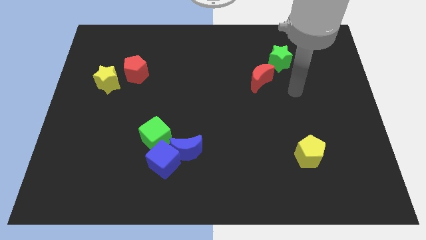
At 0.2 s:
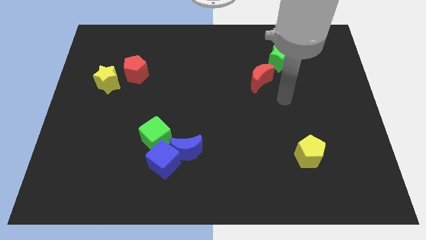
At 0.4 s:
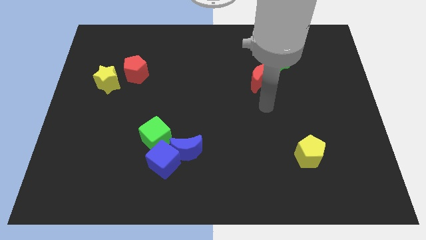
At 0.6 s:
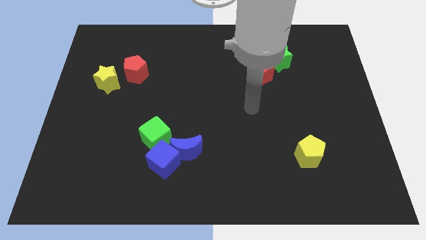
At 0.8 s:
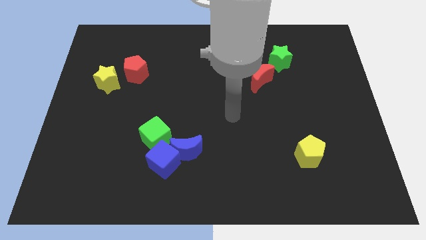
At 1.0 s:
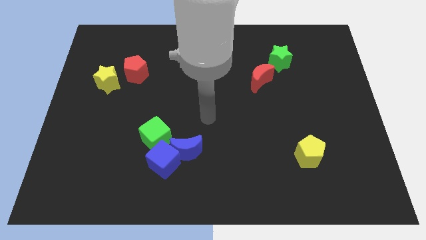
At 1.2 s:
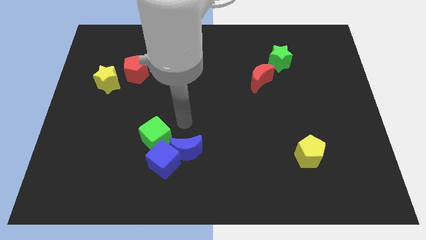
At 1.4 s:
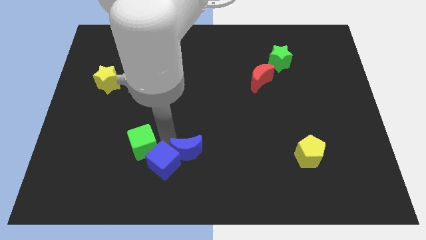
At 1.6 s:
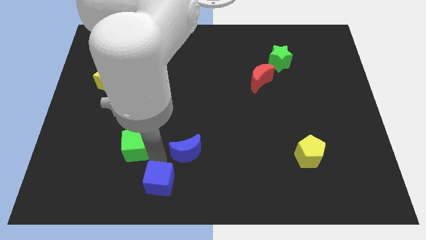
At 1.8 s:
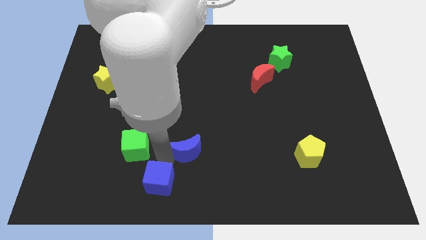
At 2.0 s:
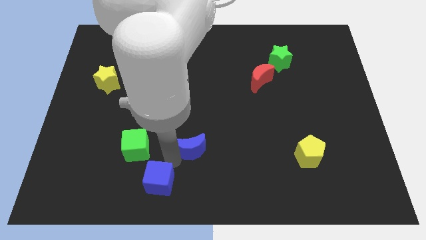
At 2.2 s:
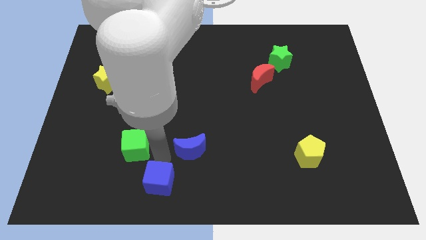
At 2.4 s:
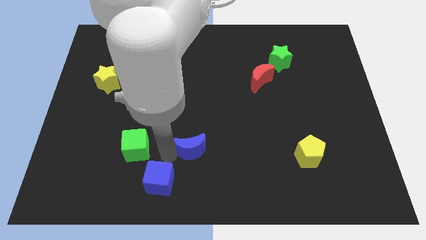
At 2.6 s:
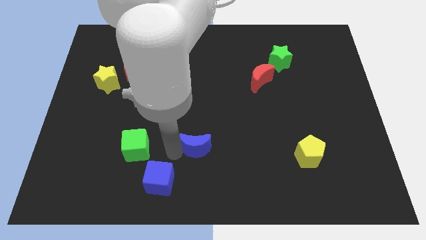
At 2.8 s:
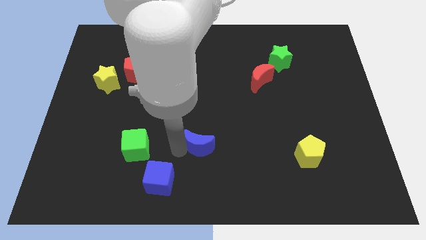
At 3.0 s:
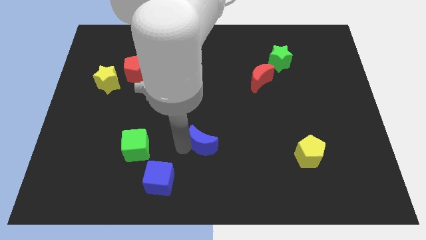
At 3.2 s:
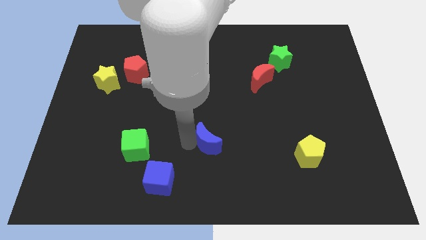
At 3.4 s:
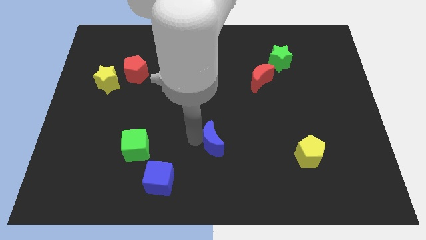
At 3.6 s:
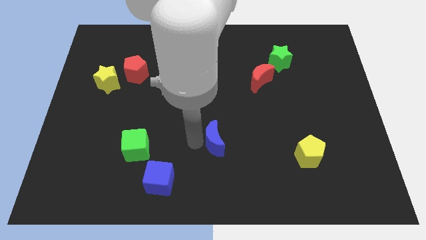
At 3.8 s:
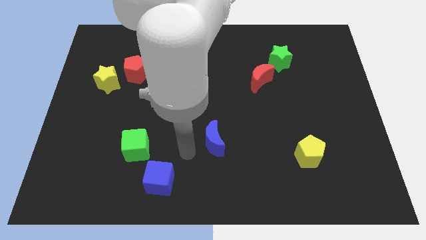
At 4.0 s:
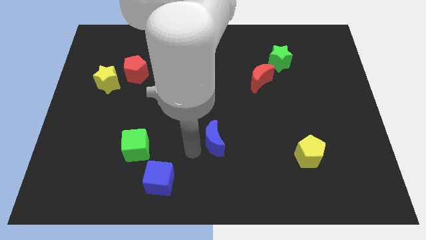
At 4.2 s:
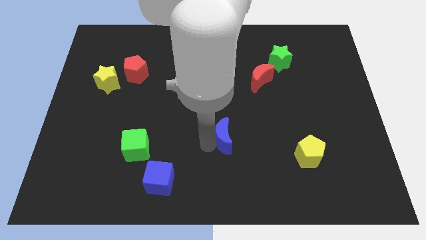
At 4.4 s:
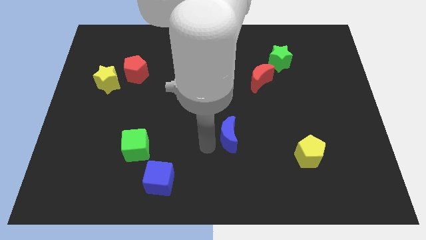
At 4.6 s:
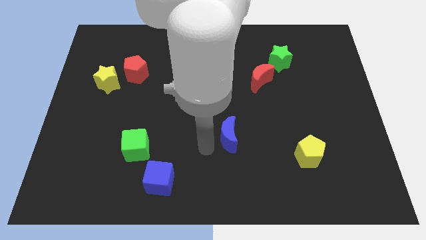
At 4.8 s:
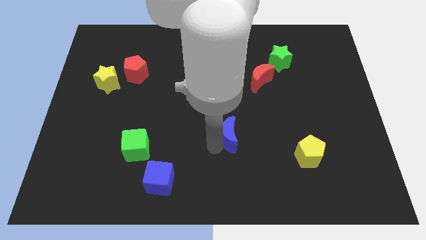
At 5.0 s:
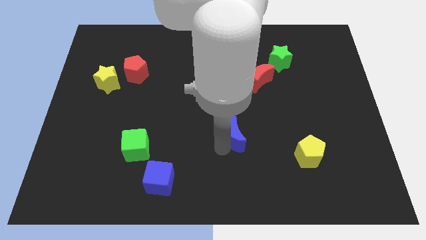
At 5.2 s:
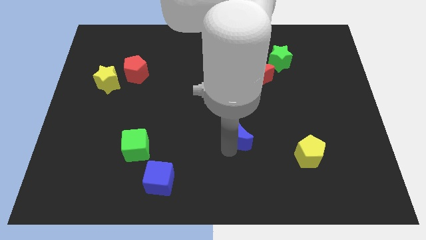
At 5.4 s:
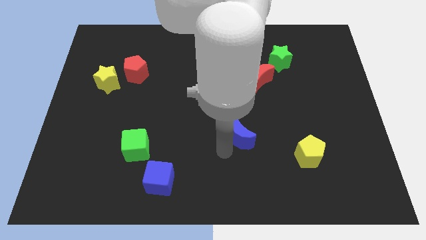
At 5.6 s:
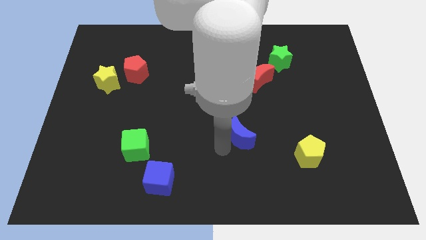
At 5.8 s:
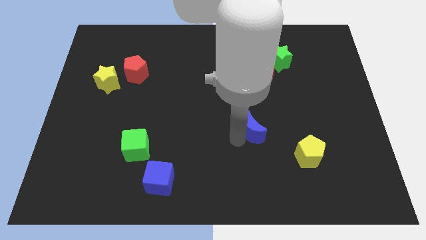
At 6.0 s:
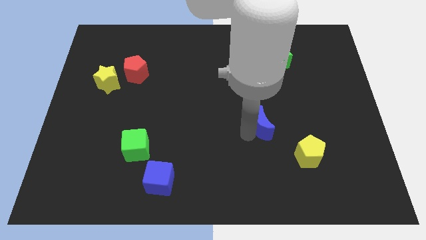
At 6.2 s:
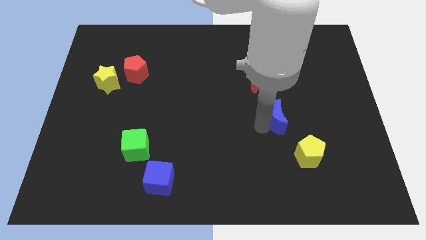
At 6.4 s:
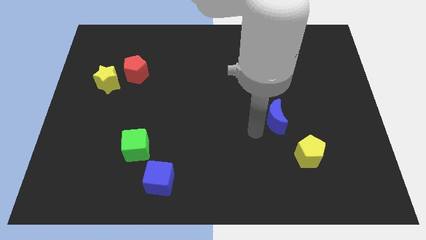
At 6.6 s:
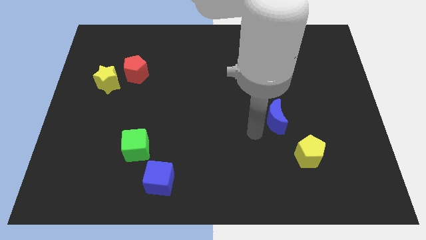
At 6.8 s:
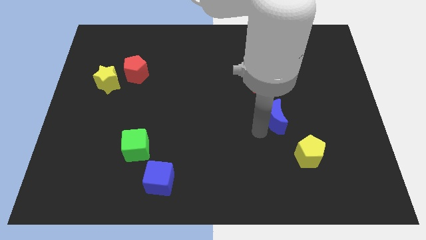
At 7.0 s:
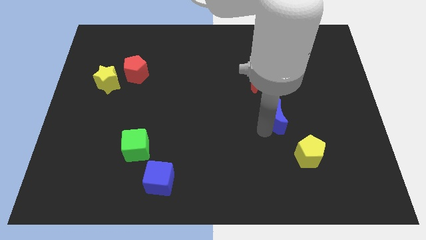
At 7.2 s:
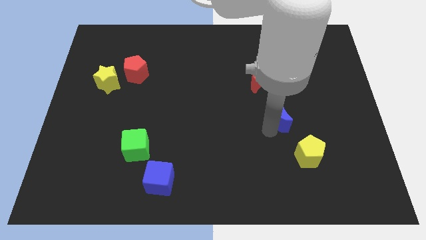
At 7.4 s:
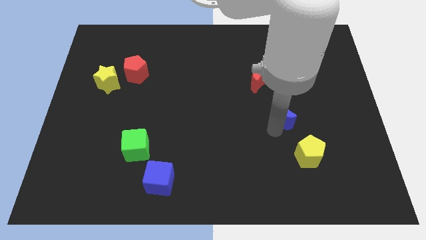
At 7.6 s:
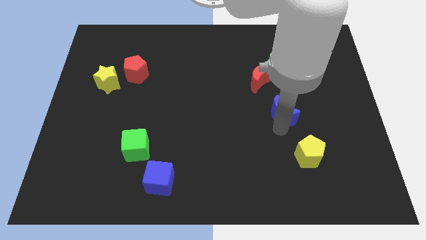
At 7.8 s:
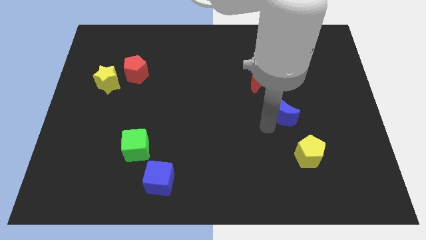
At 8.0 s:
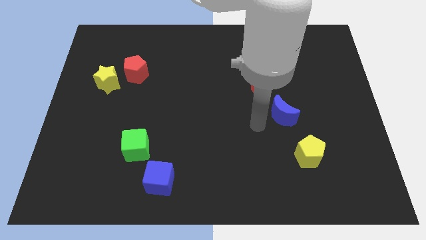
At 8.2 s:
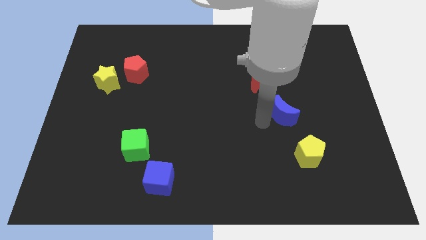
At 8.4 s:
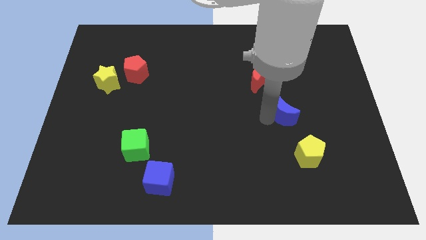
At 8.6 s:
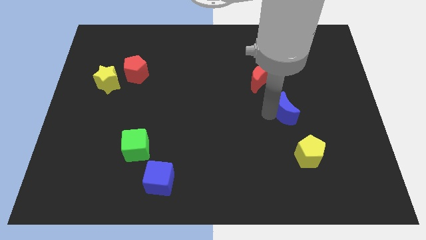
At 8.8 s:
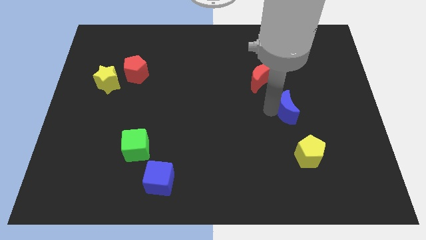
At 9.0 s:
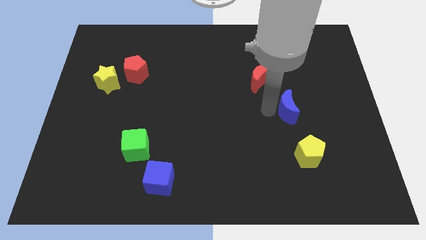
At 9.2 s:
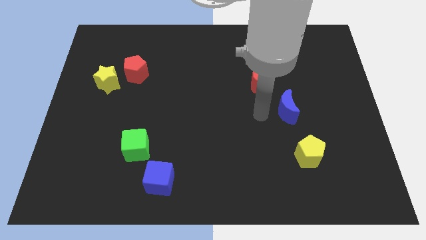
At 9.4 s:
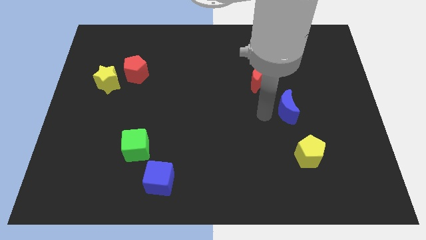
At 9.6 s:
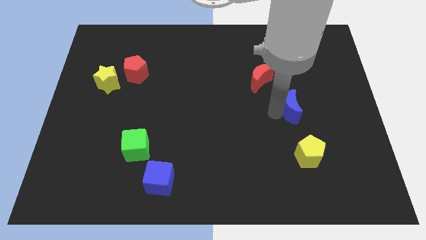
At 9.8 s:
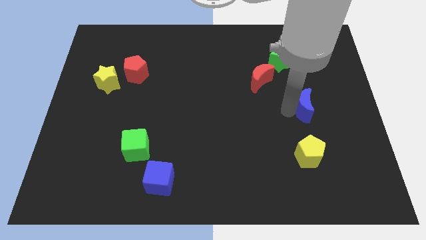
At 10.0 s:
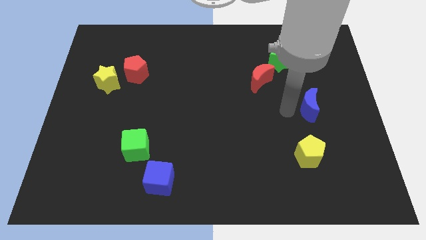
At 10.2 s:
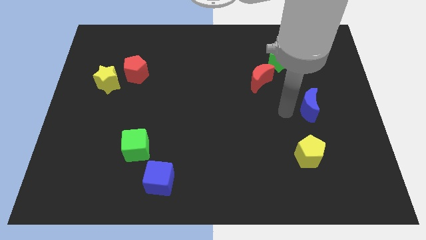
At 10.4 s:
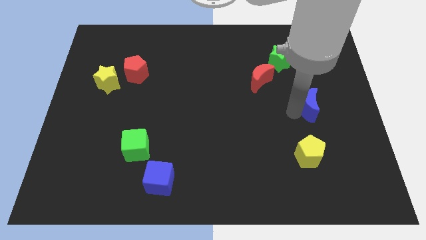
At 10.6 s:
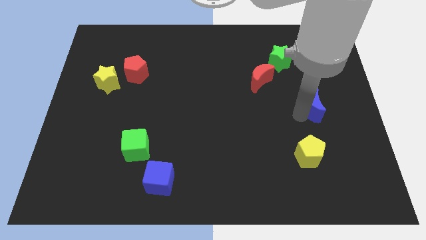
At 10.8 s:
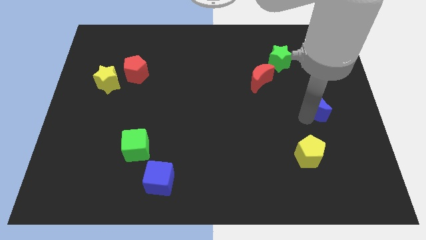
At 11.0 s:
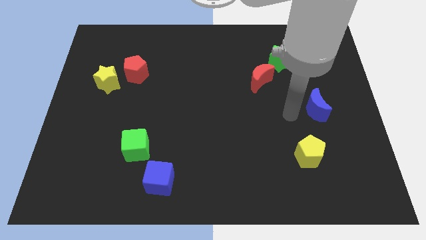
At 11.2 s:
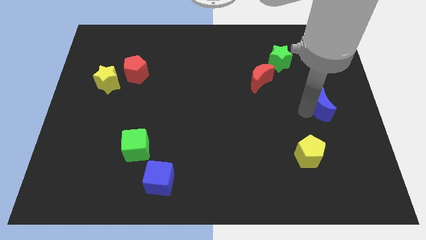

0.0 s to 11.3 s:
move the blue moon to the center right

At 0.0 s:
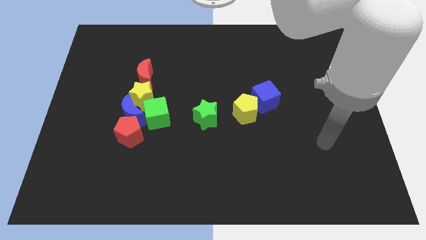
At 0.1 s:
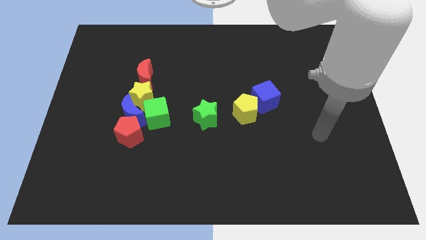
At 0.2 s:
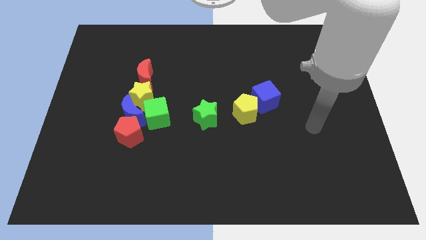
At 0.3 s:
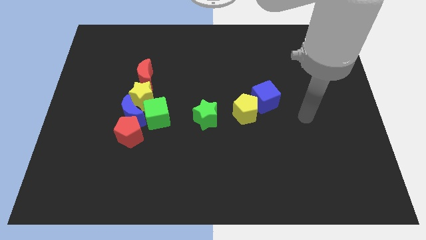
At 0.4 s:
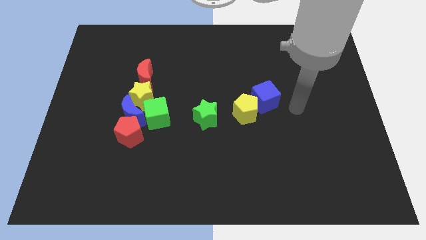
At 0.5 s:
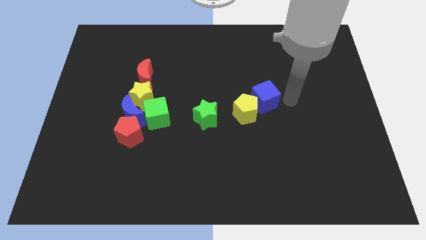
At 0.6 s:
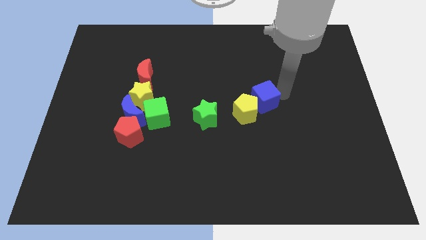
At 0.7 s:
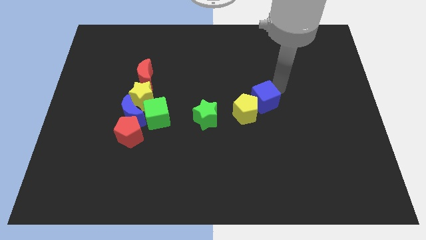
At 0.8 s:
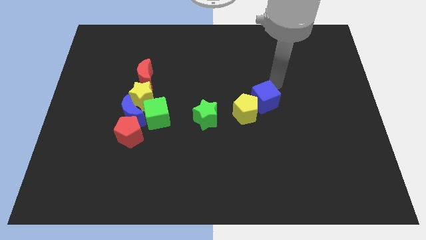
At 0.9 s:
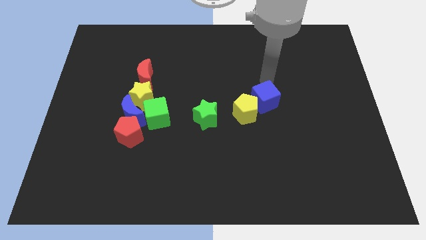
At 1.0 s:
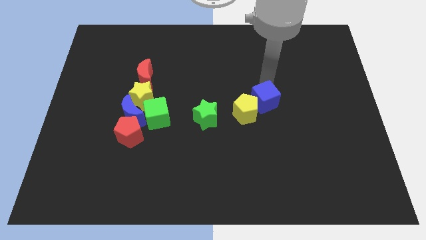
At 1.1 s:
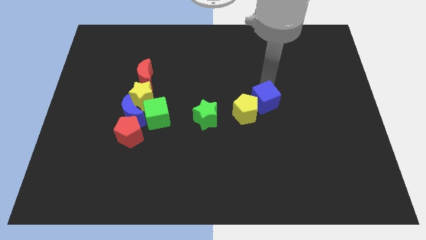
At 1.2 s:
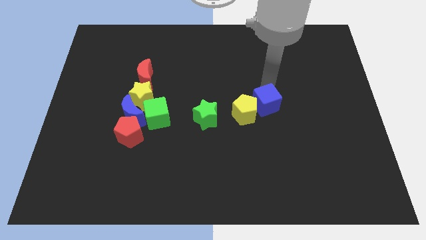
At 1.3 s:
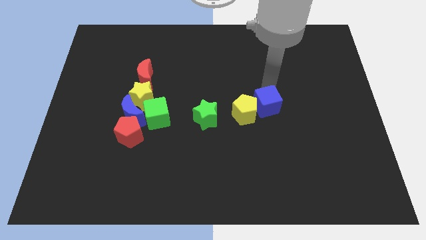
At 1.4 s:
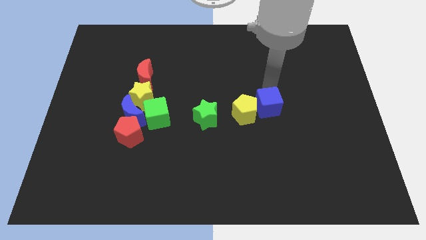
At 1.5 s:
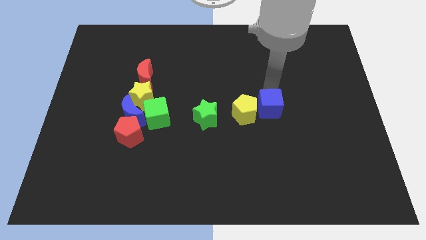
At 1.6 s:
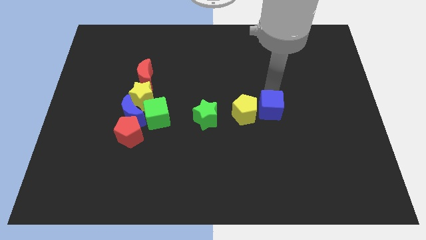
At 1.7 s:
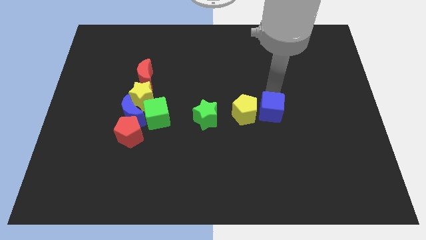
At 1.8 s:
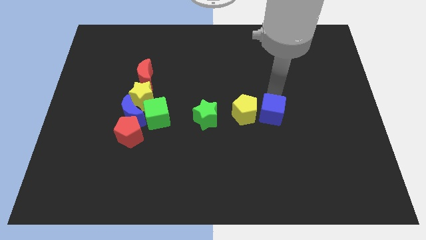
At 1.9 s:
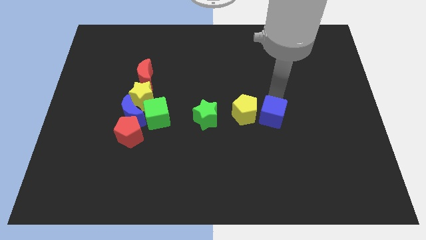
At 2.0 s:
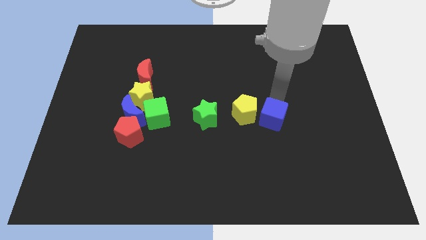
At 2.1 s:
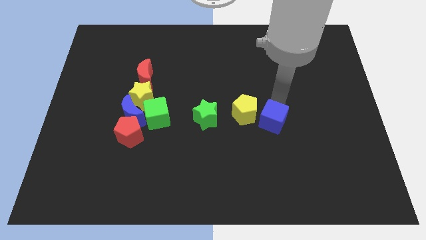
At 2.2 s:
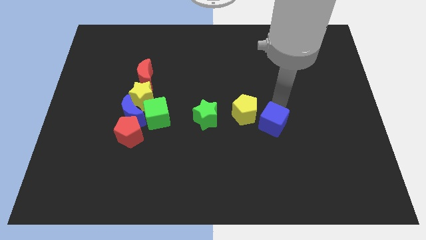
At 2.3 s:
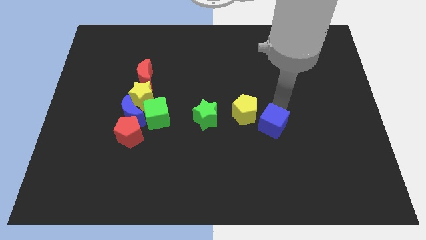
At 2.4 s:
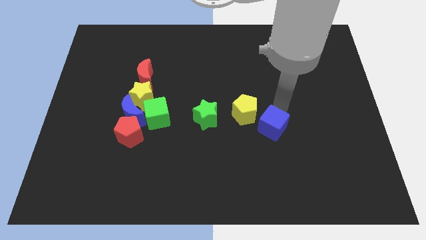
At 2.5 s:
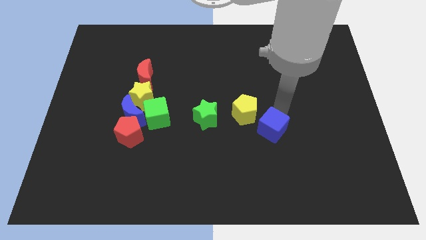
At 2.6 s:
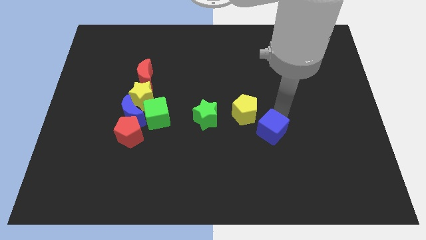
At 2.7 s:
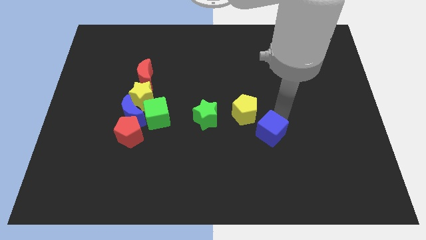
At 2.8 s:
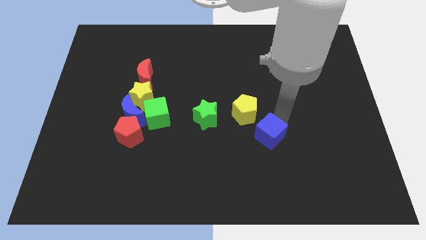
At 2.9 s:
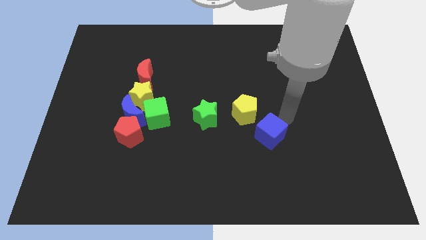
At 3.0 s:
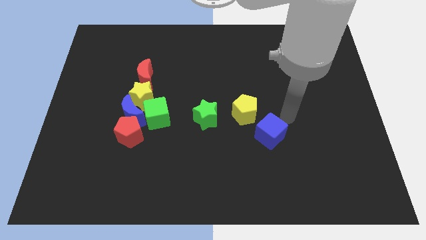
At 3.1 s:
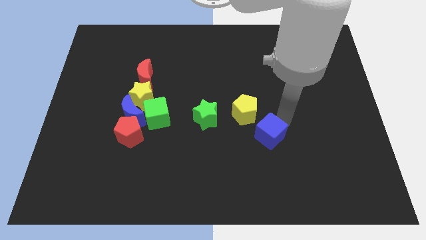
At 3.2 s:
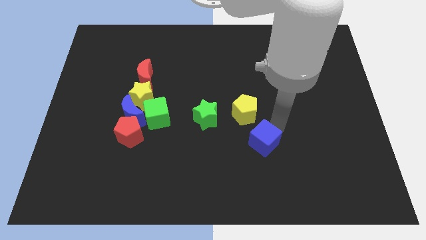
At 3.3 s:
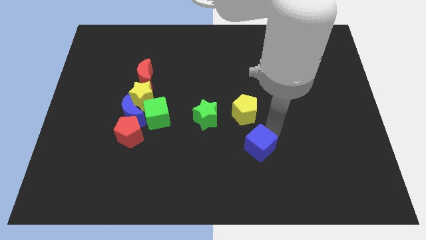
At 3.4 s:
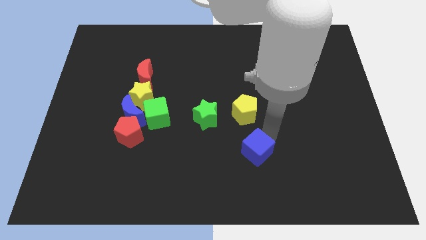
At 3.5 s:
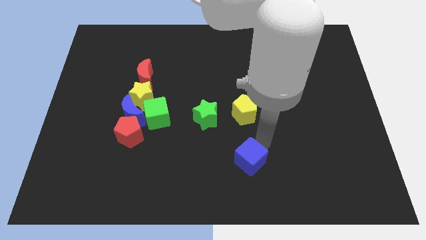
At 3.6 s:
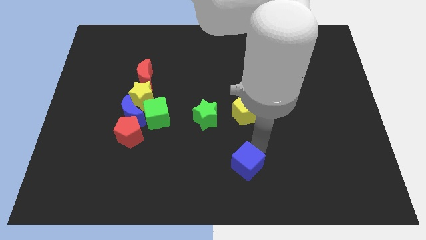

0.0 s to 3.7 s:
move the blue cube to the bottom
